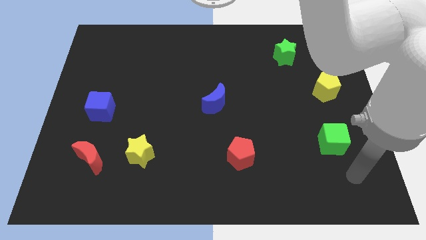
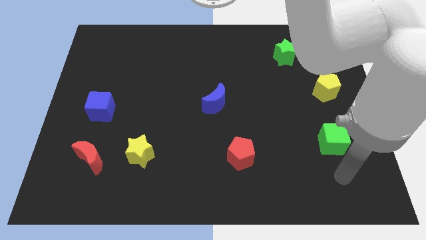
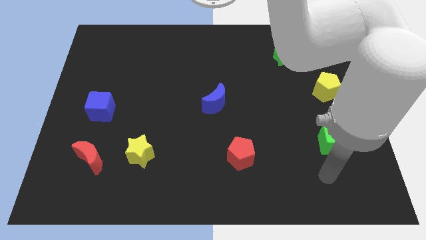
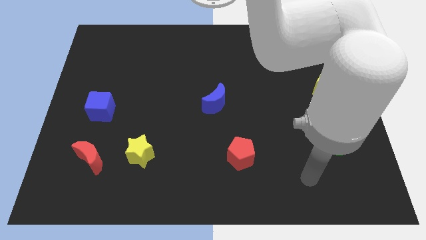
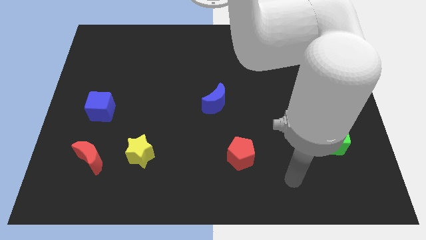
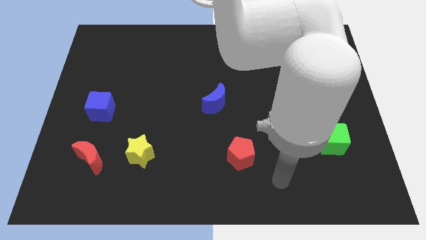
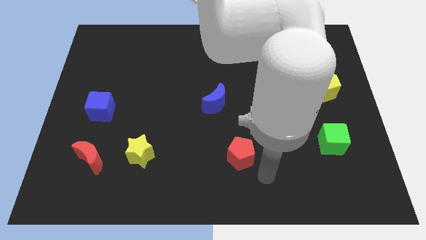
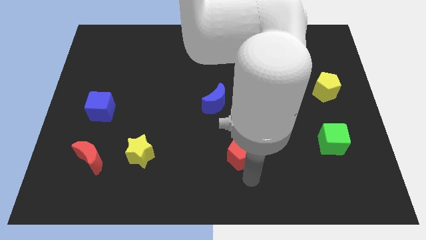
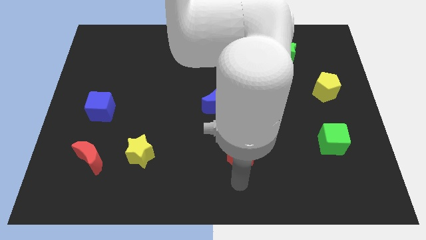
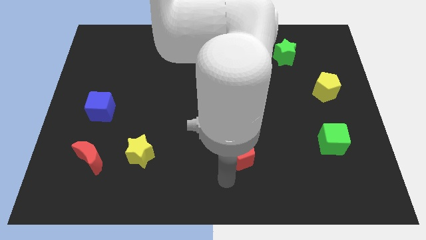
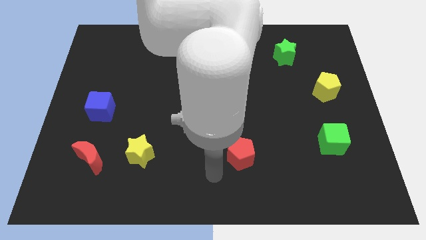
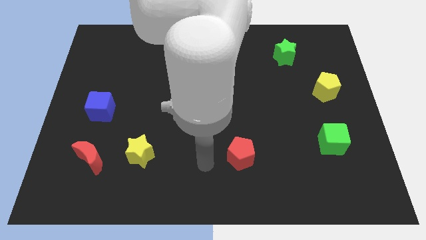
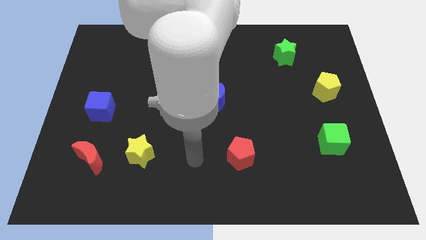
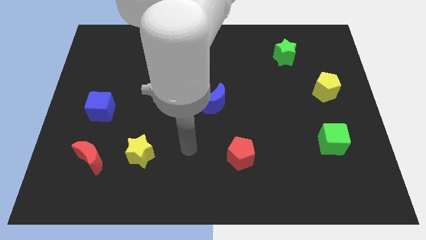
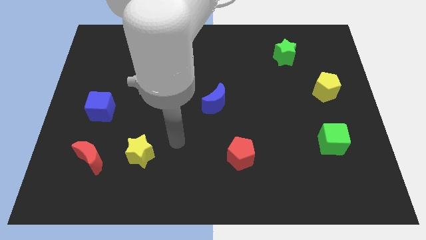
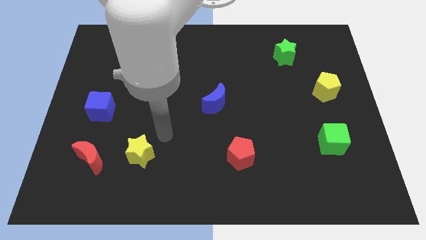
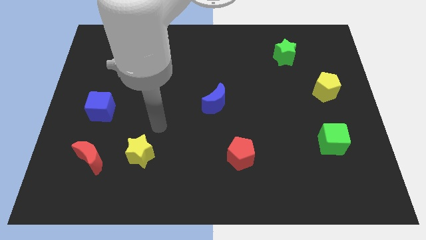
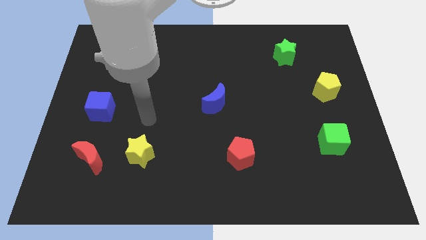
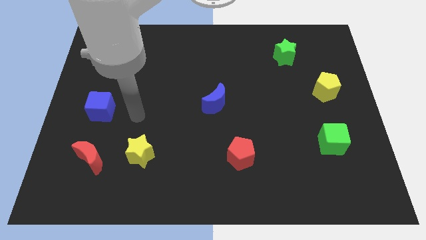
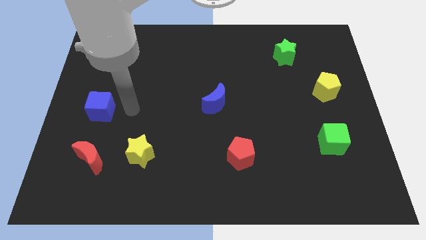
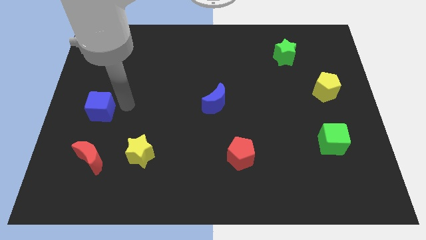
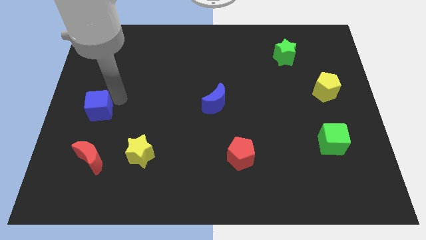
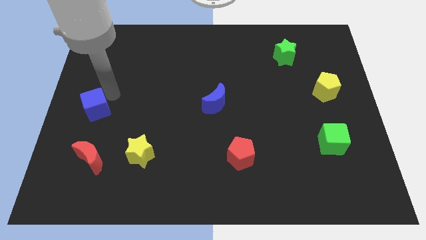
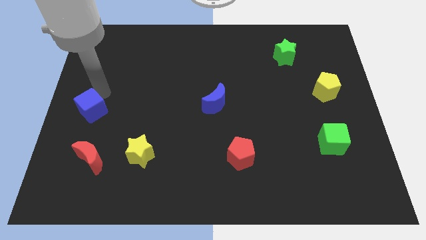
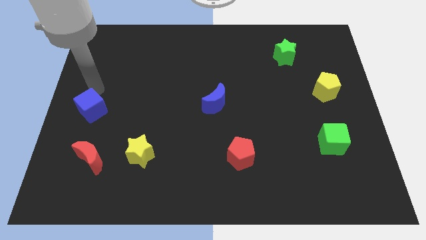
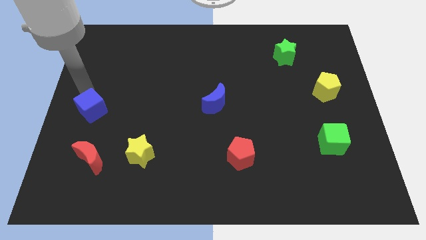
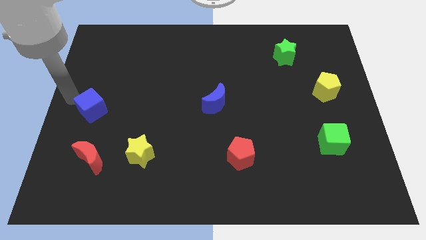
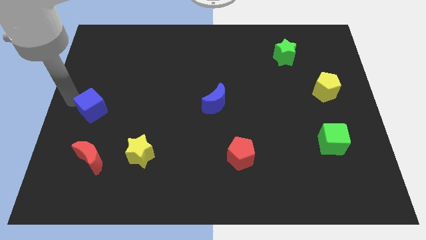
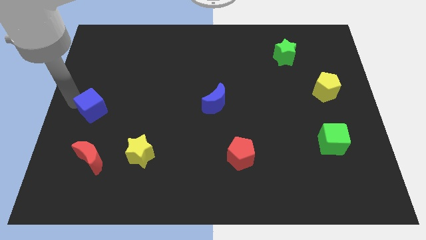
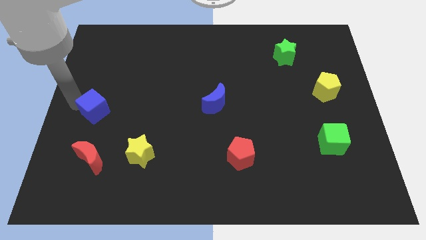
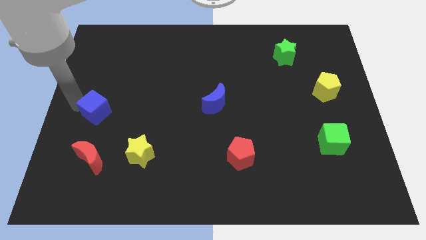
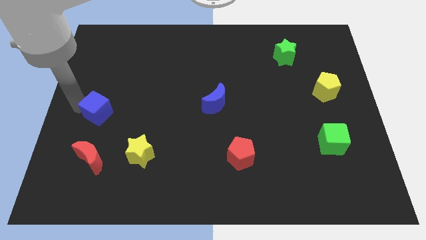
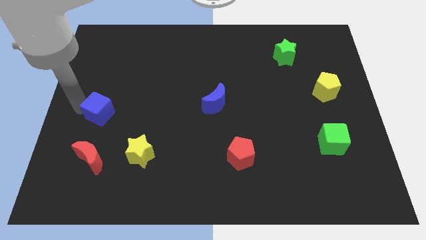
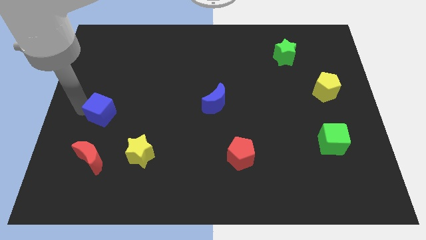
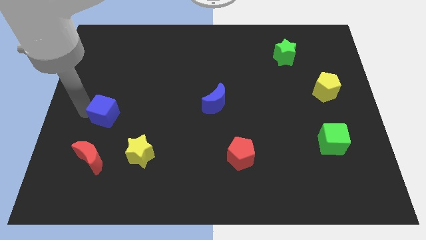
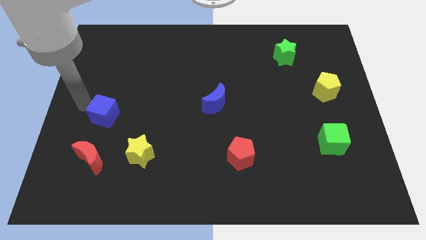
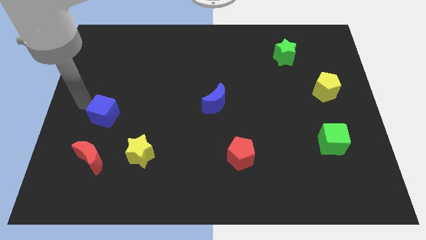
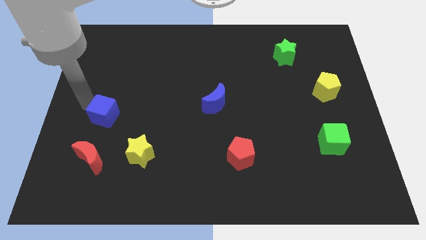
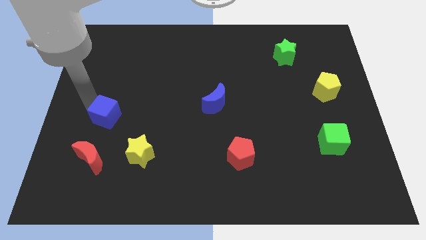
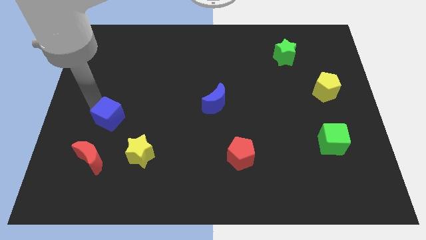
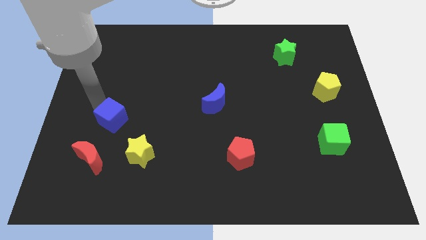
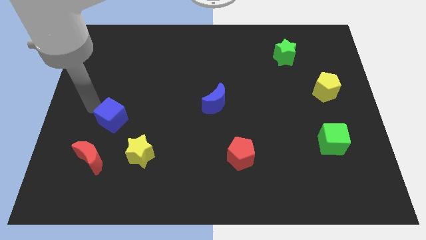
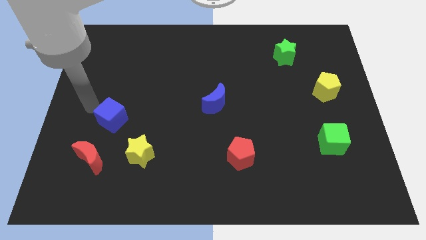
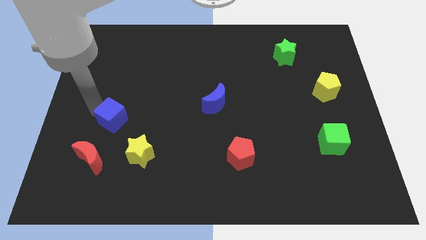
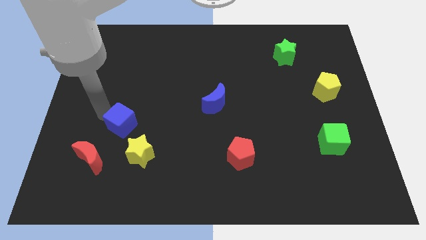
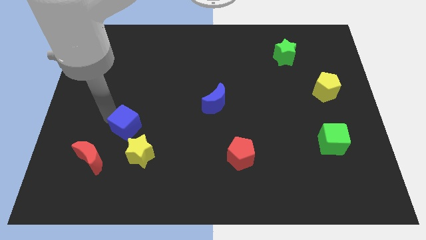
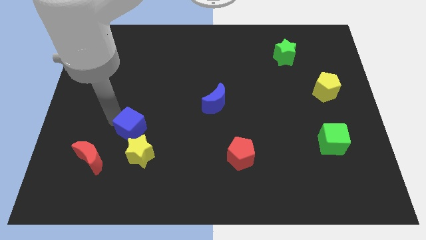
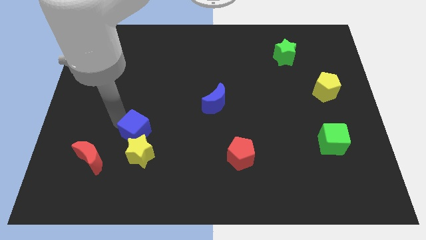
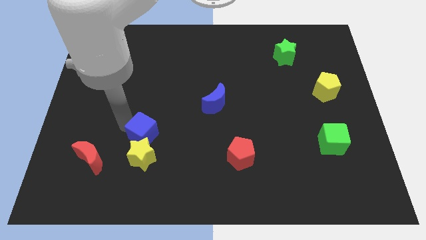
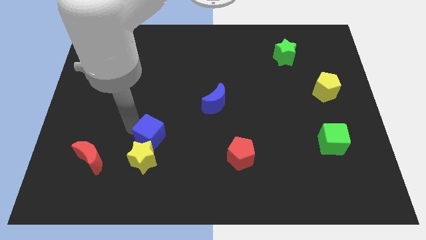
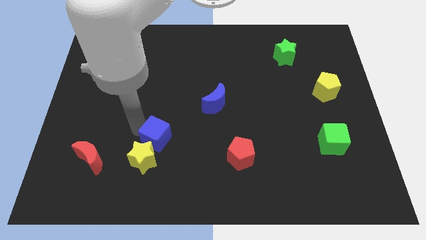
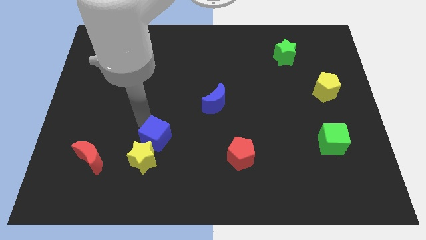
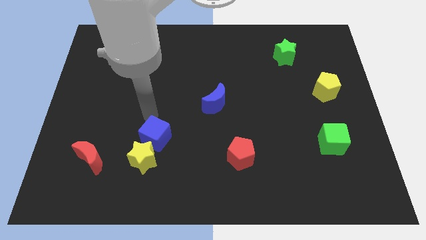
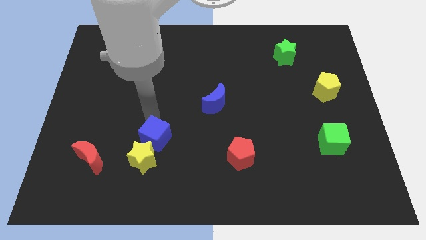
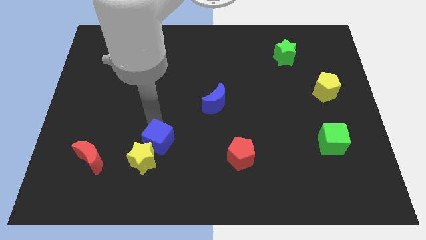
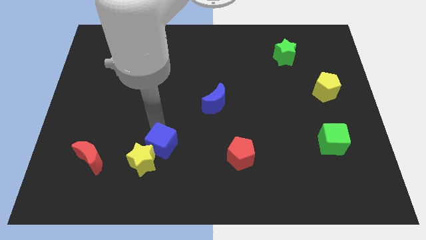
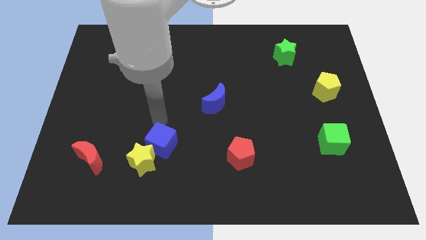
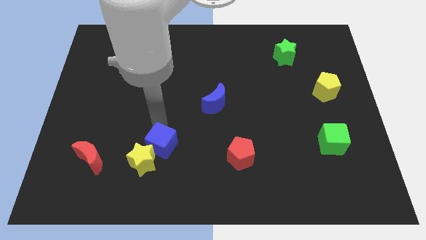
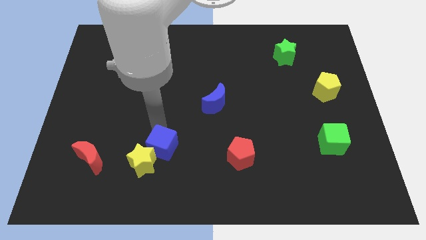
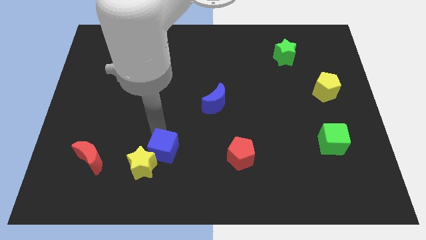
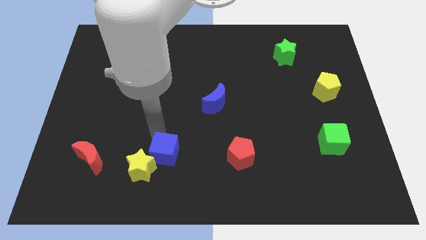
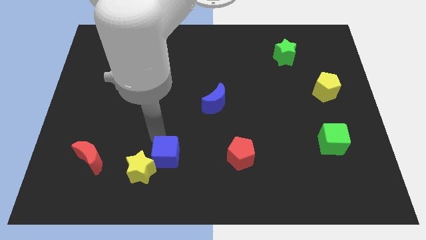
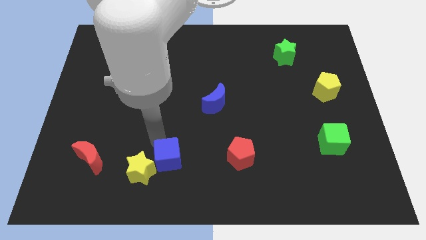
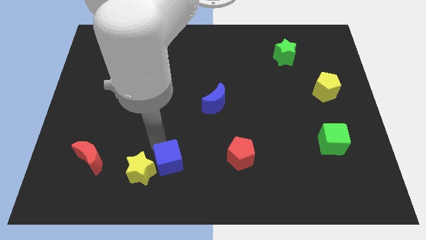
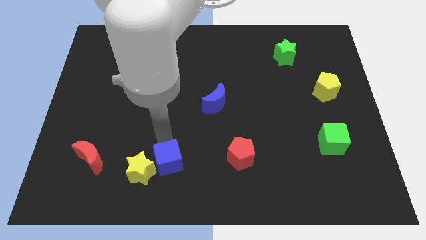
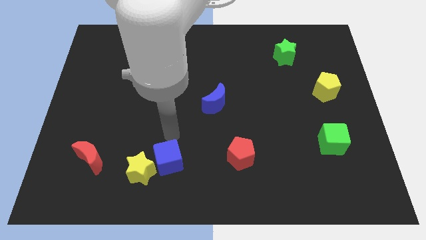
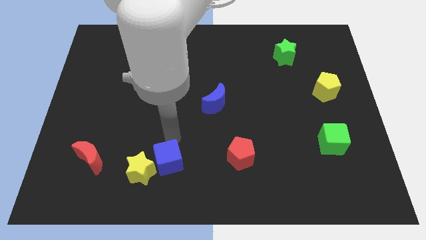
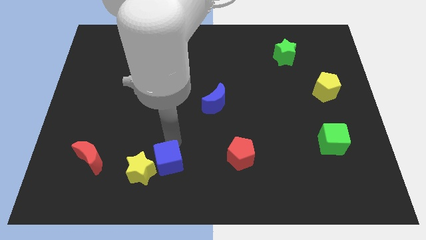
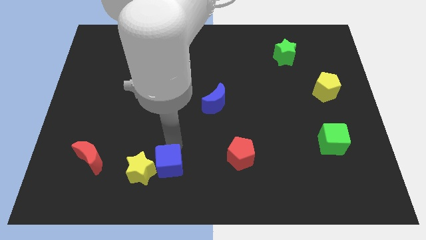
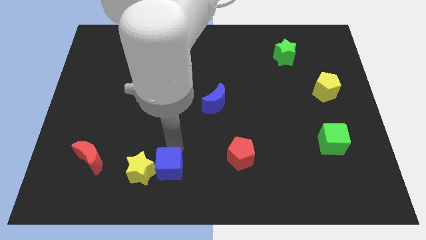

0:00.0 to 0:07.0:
slide the blue cube to the bottom right side of the yellow star
